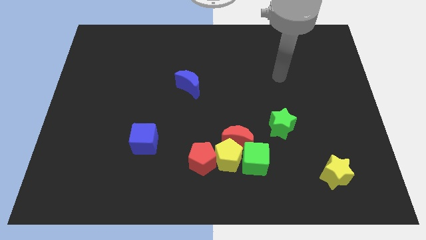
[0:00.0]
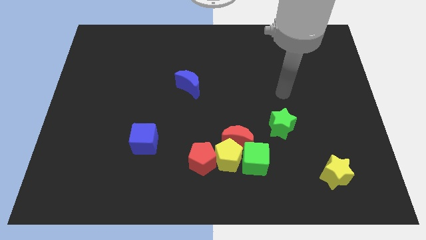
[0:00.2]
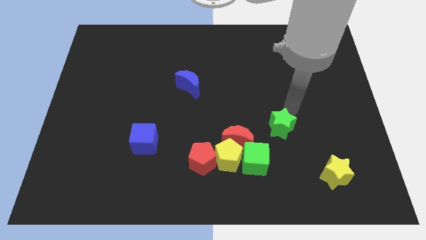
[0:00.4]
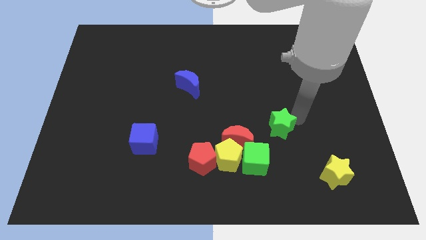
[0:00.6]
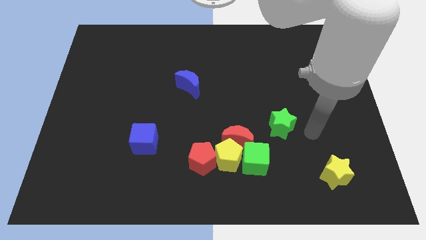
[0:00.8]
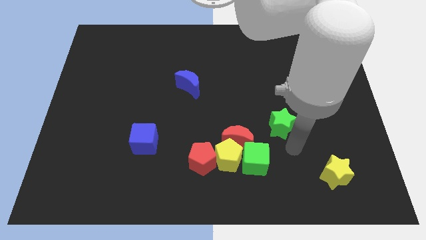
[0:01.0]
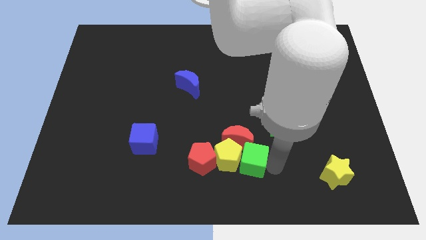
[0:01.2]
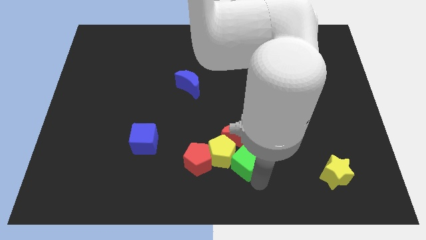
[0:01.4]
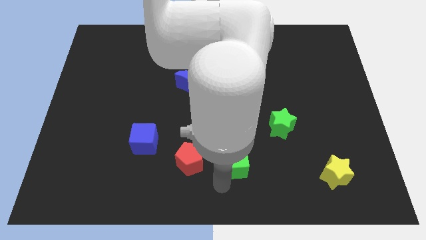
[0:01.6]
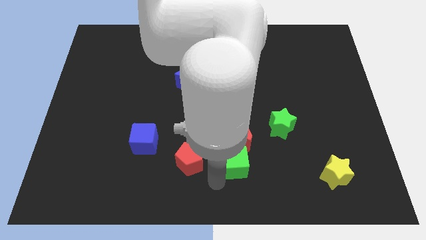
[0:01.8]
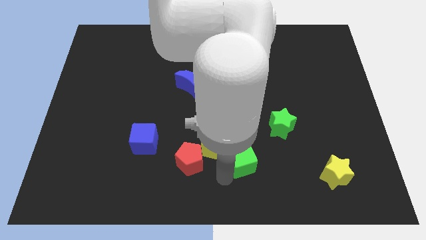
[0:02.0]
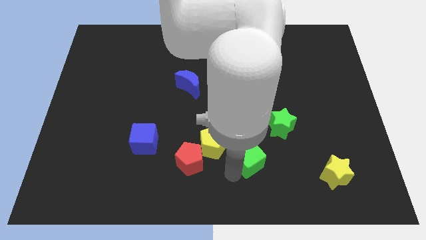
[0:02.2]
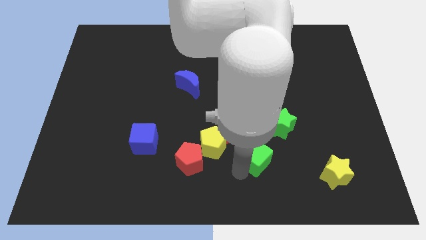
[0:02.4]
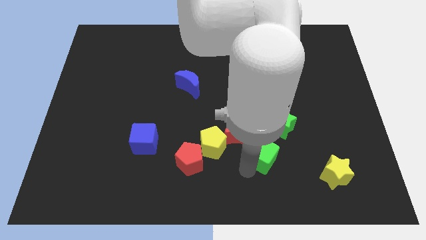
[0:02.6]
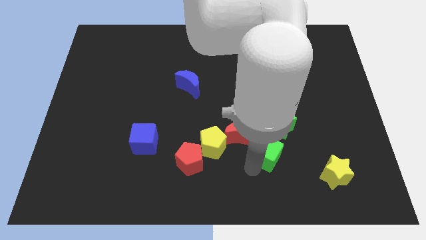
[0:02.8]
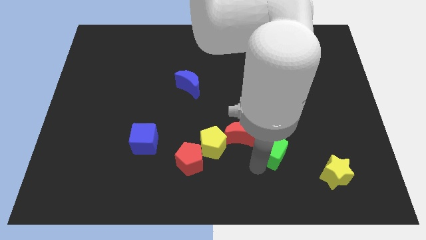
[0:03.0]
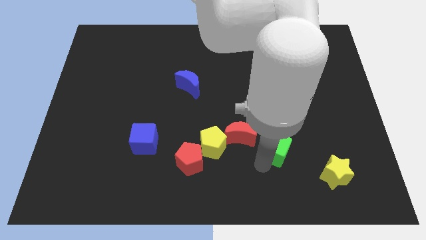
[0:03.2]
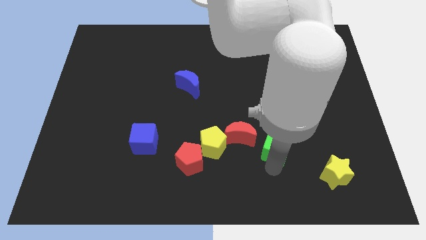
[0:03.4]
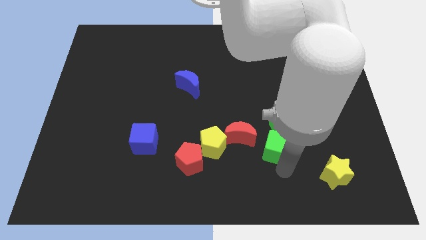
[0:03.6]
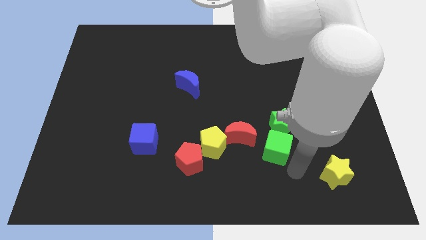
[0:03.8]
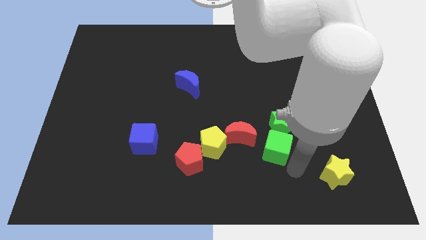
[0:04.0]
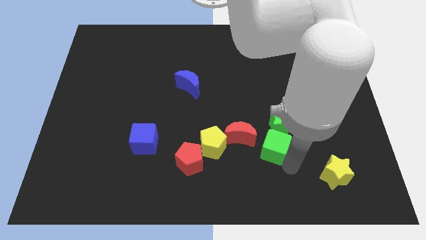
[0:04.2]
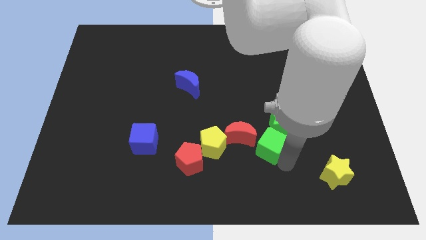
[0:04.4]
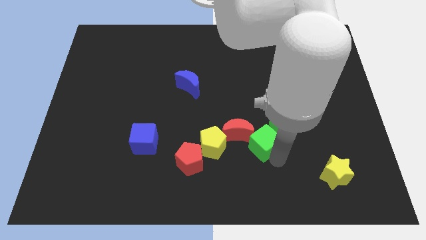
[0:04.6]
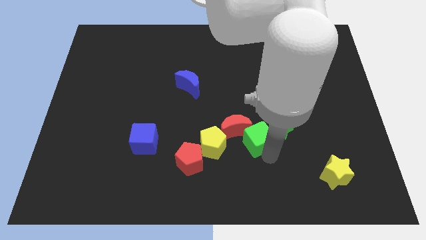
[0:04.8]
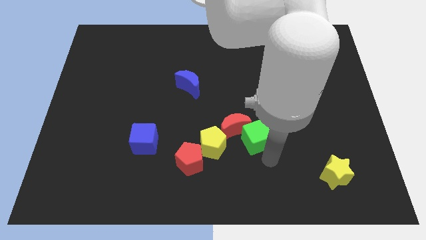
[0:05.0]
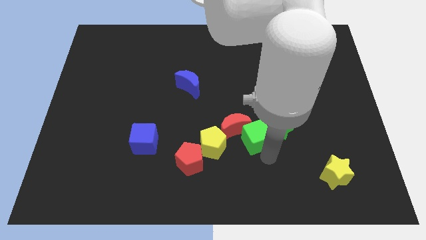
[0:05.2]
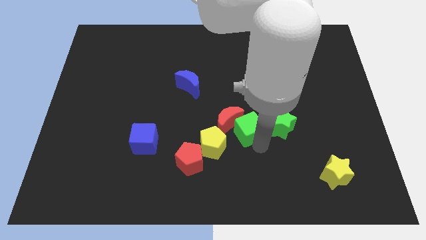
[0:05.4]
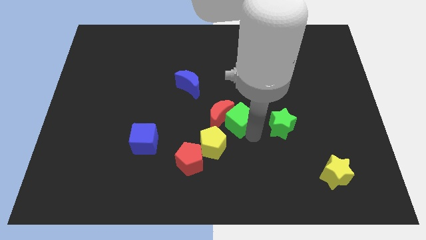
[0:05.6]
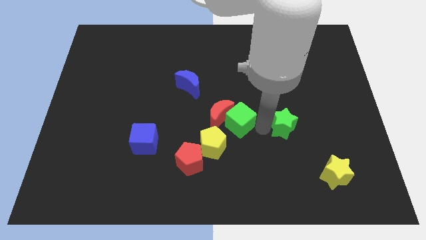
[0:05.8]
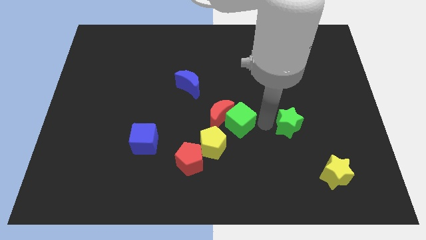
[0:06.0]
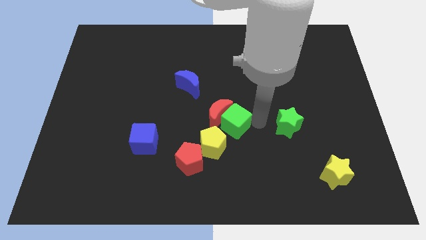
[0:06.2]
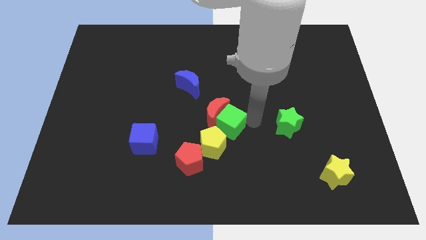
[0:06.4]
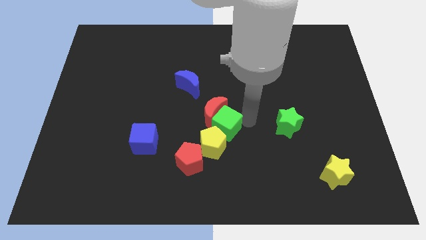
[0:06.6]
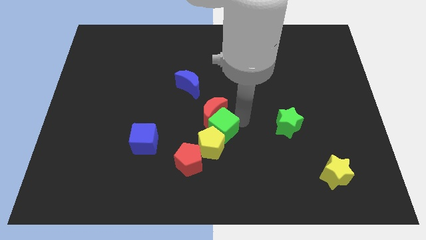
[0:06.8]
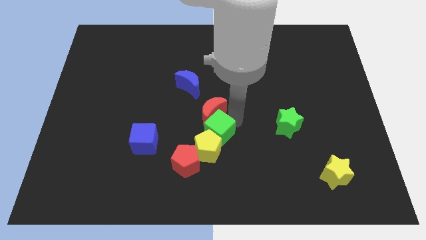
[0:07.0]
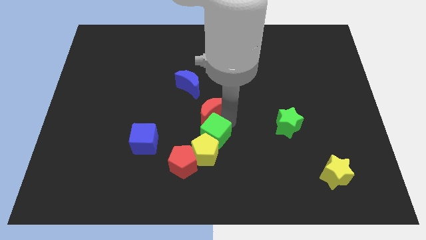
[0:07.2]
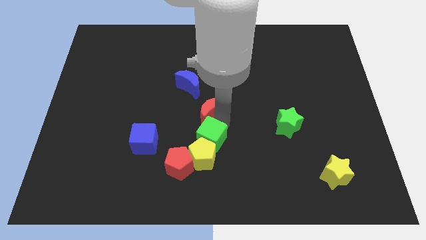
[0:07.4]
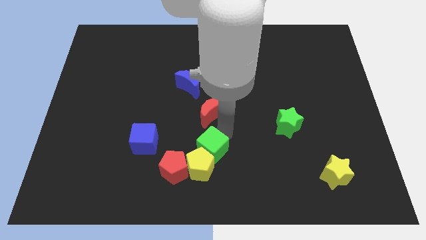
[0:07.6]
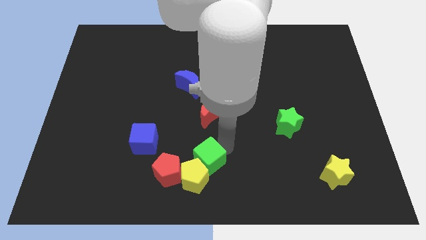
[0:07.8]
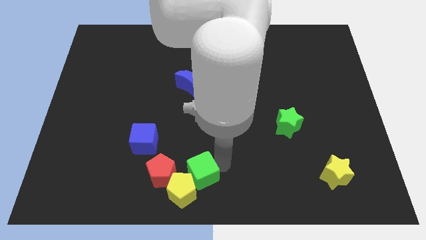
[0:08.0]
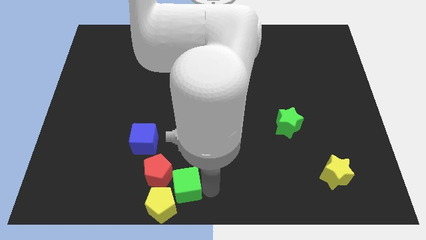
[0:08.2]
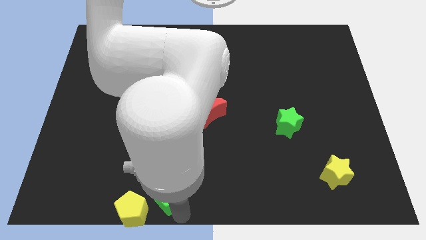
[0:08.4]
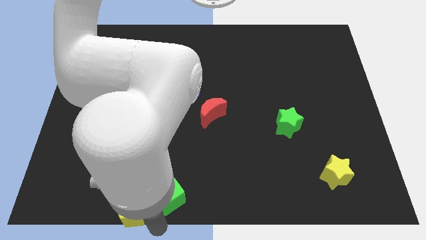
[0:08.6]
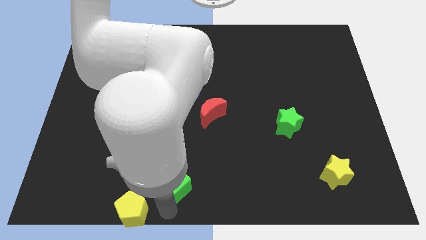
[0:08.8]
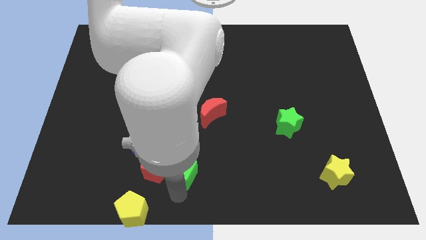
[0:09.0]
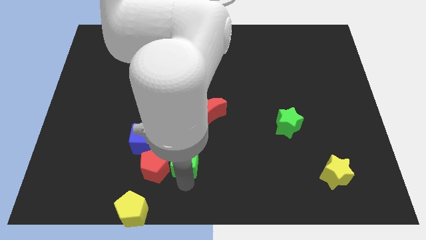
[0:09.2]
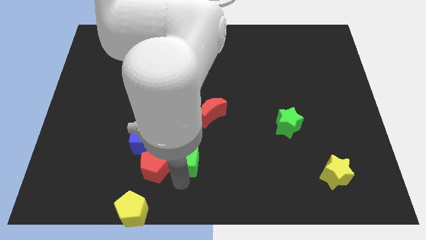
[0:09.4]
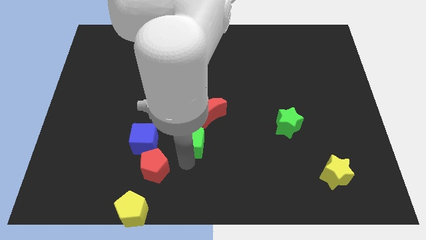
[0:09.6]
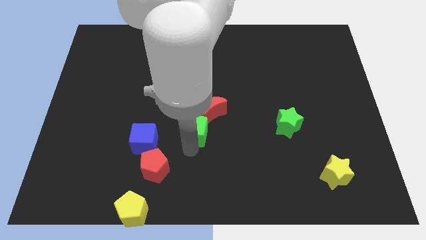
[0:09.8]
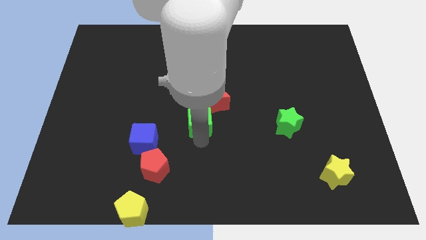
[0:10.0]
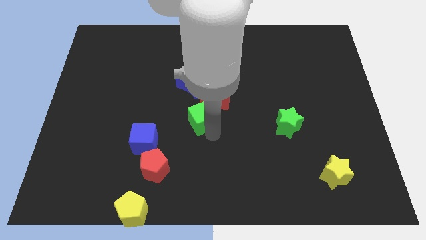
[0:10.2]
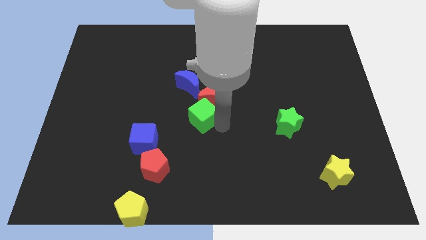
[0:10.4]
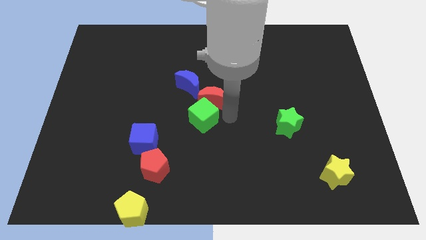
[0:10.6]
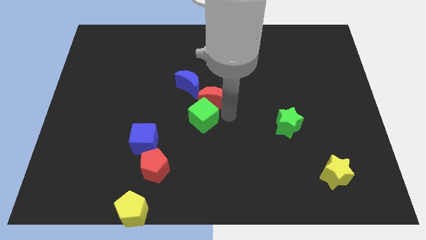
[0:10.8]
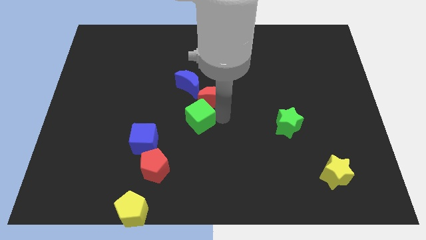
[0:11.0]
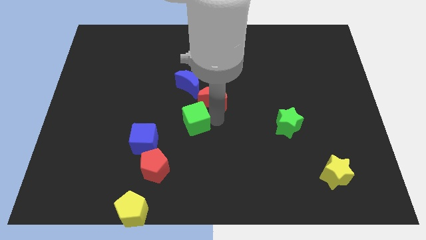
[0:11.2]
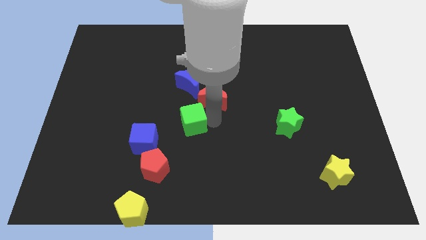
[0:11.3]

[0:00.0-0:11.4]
push the green cube to the top right side of the blue cube

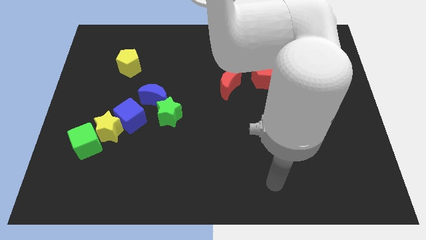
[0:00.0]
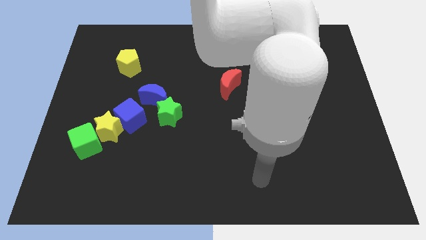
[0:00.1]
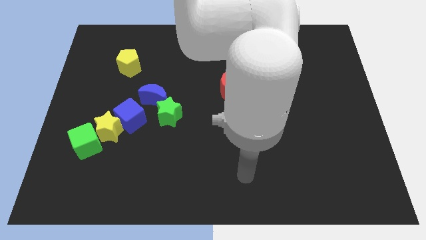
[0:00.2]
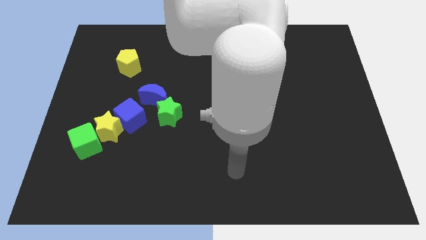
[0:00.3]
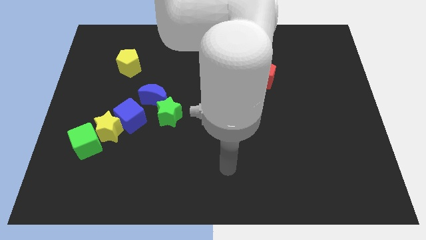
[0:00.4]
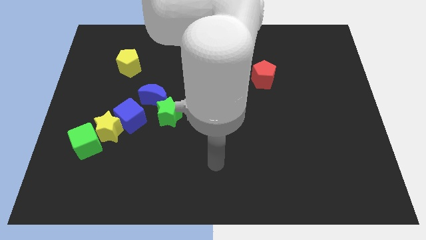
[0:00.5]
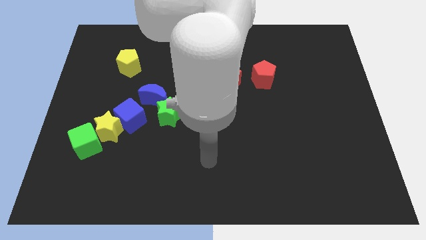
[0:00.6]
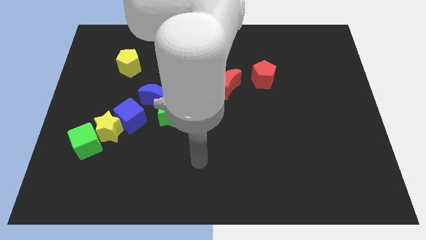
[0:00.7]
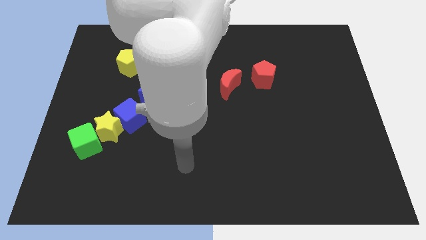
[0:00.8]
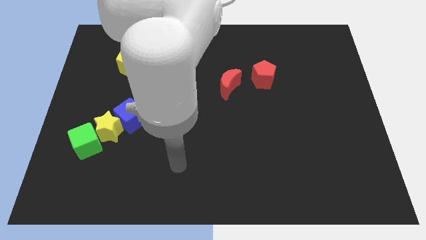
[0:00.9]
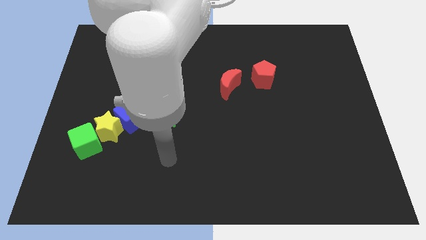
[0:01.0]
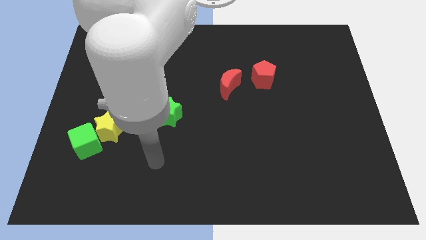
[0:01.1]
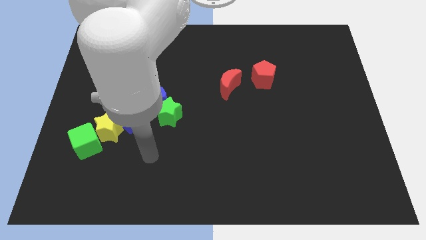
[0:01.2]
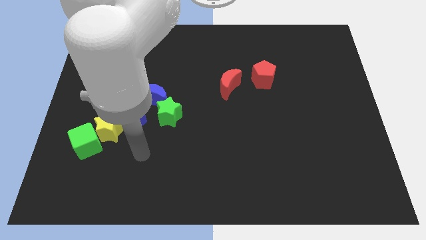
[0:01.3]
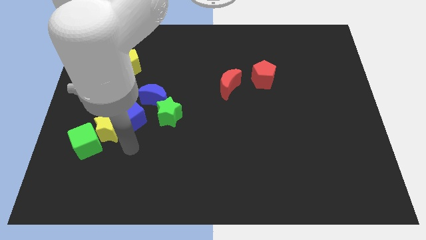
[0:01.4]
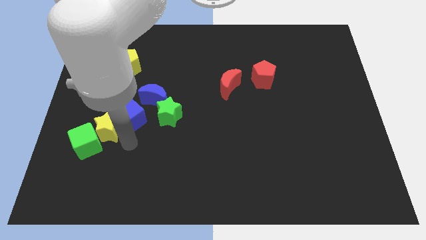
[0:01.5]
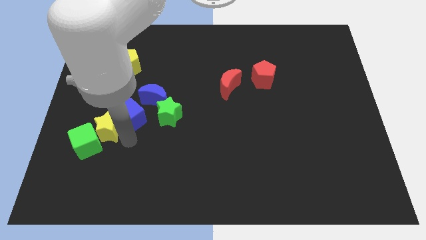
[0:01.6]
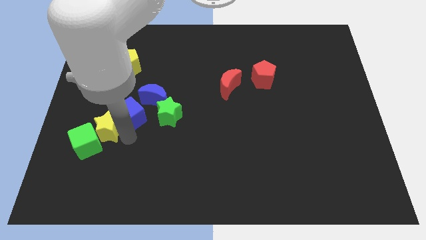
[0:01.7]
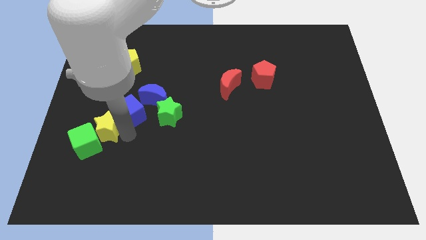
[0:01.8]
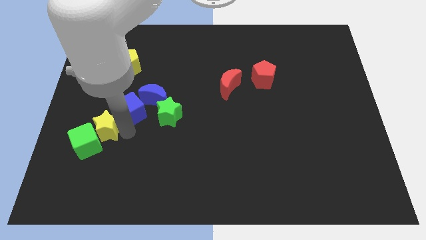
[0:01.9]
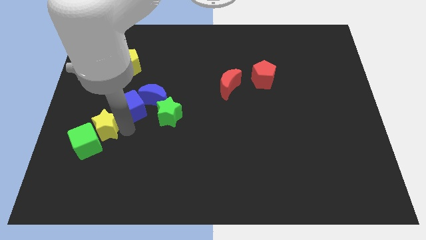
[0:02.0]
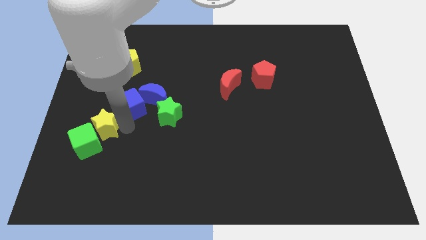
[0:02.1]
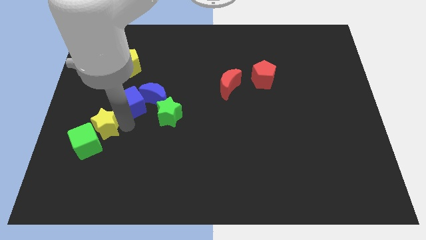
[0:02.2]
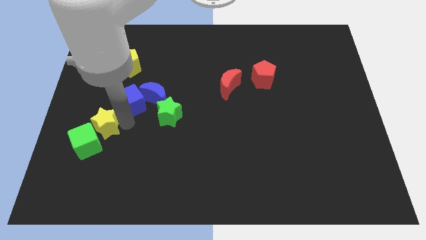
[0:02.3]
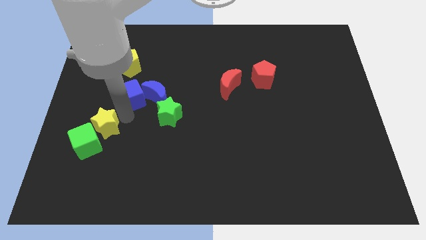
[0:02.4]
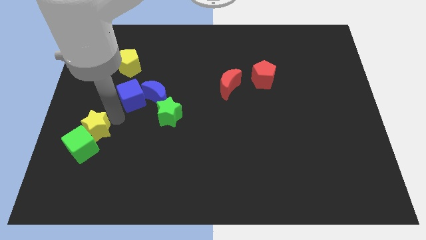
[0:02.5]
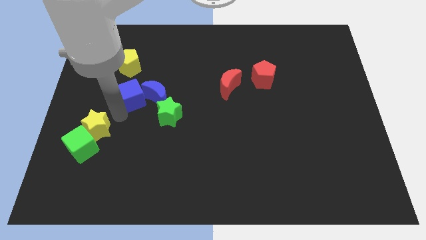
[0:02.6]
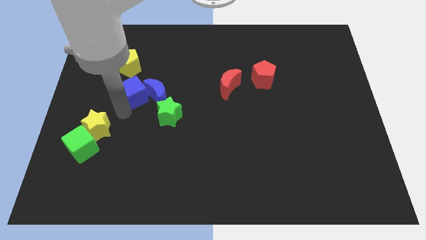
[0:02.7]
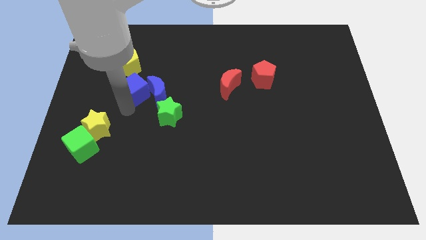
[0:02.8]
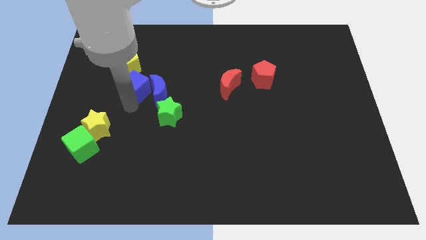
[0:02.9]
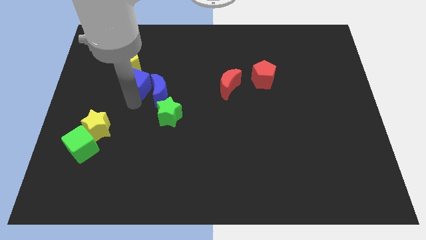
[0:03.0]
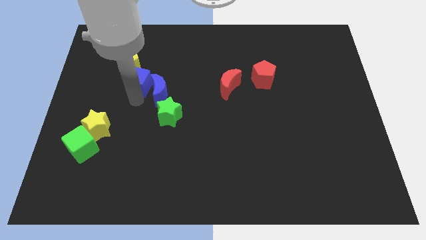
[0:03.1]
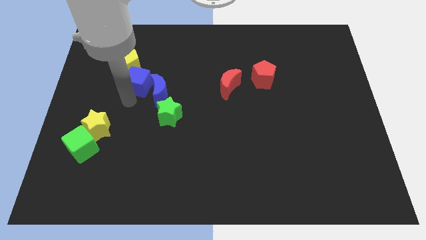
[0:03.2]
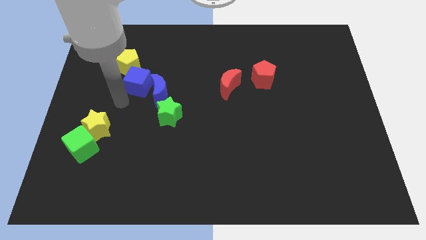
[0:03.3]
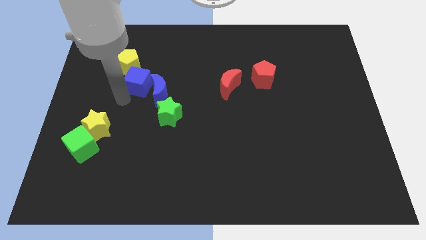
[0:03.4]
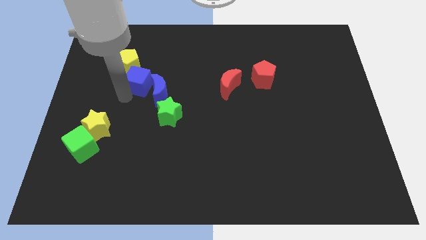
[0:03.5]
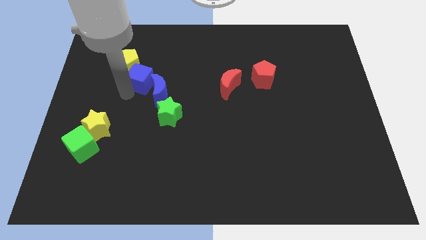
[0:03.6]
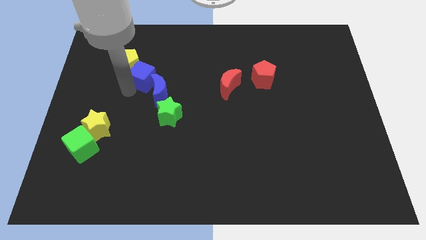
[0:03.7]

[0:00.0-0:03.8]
move the blue cube above the blue moon
